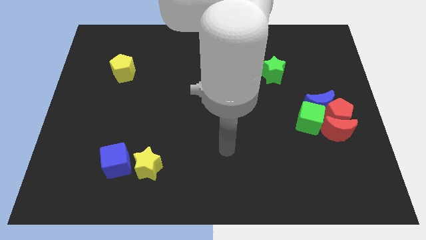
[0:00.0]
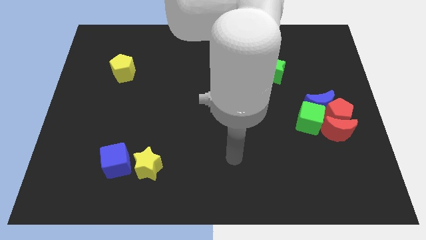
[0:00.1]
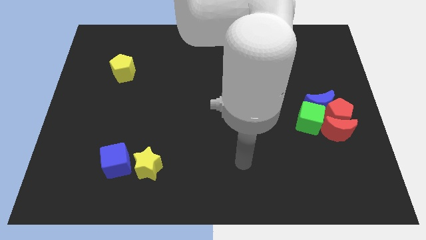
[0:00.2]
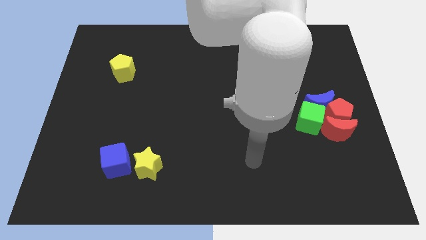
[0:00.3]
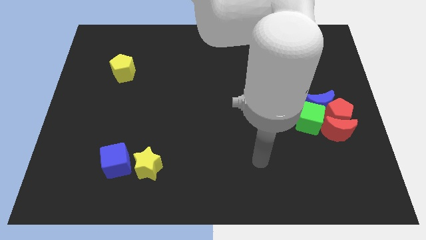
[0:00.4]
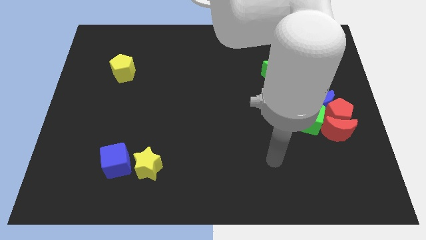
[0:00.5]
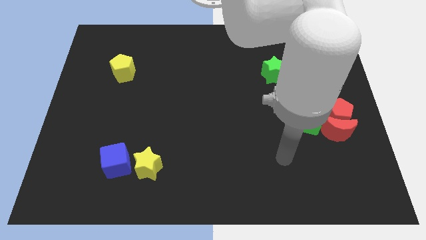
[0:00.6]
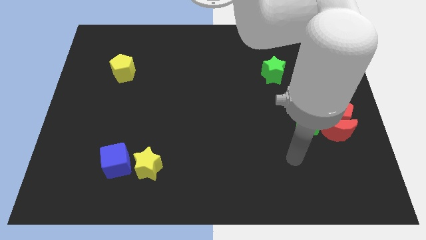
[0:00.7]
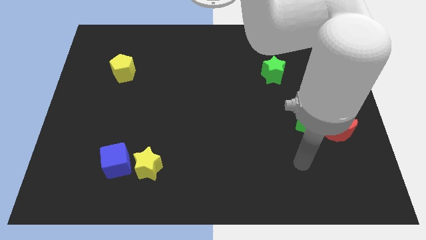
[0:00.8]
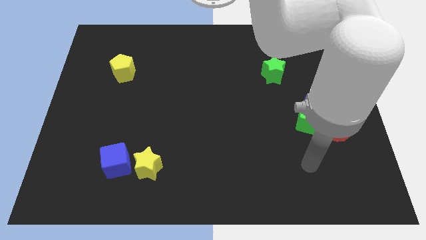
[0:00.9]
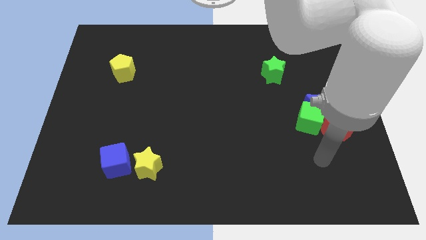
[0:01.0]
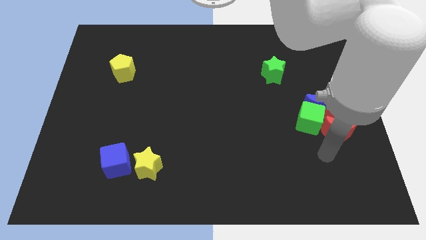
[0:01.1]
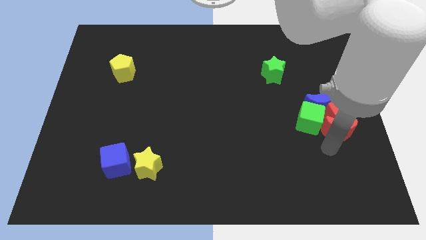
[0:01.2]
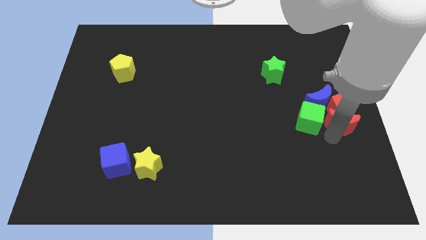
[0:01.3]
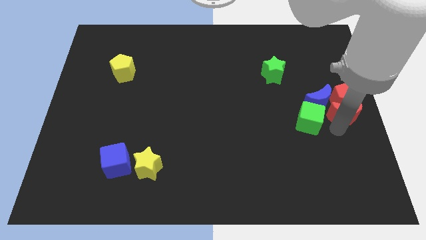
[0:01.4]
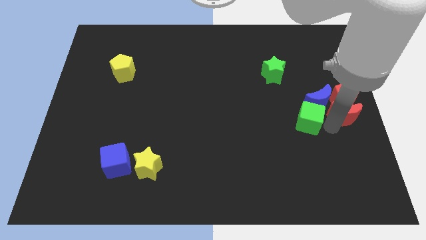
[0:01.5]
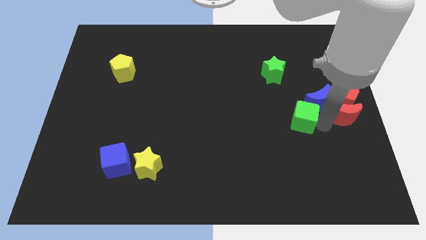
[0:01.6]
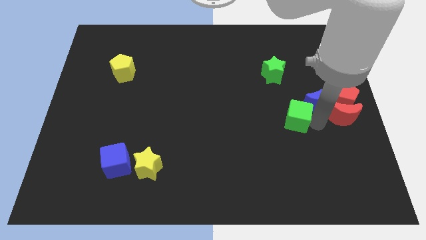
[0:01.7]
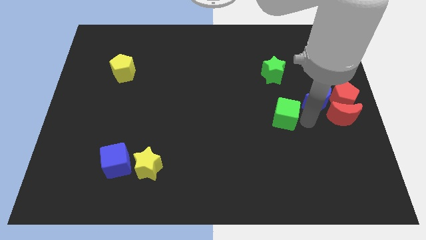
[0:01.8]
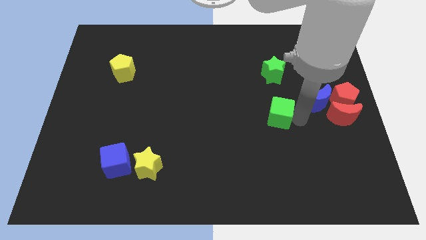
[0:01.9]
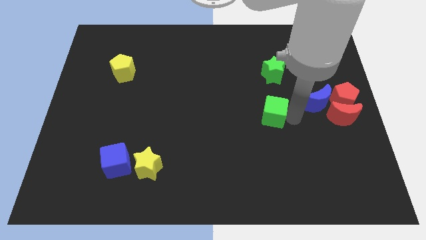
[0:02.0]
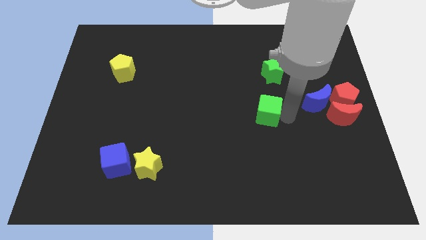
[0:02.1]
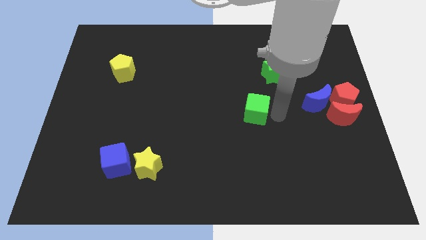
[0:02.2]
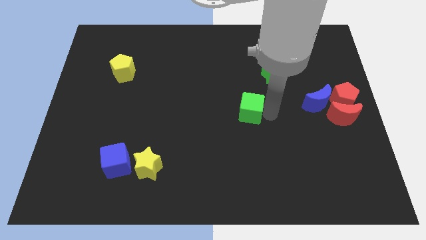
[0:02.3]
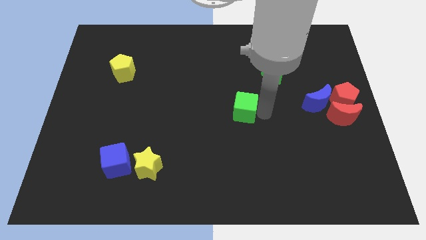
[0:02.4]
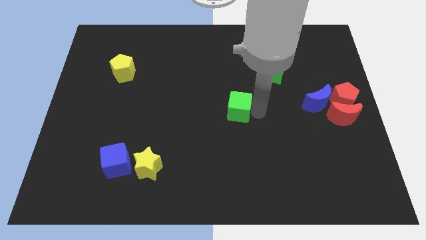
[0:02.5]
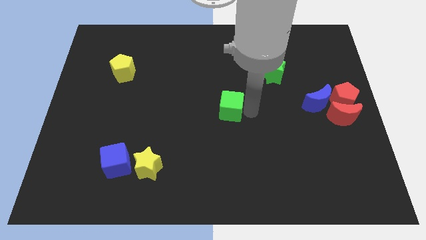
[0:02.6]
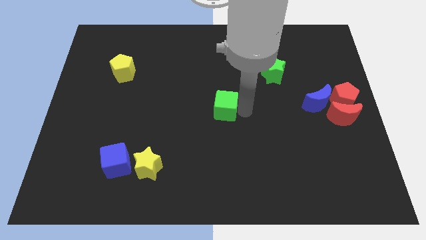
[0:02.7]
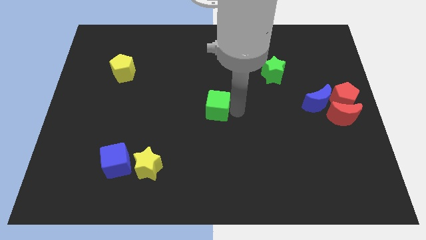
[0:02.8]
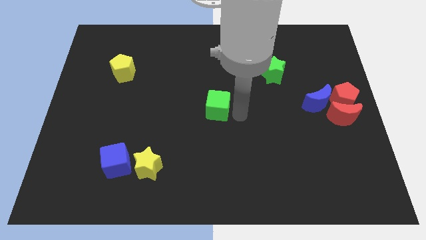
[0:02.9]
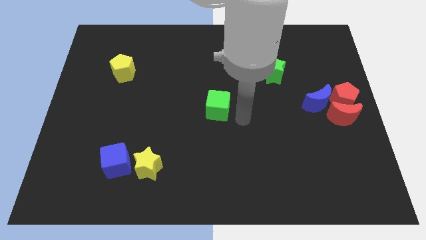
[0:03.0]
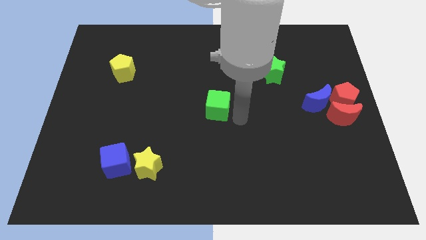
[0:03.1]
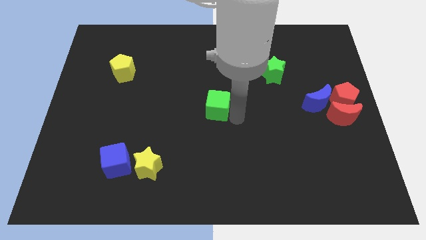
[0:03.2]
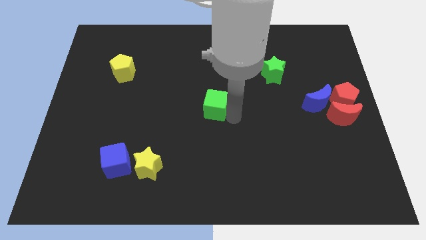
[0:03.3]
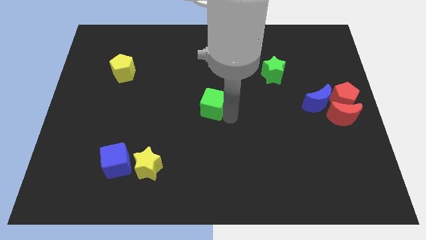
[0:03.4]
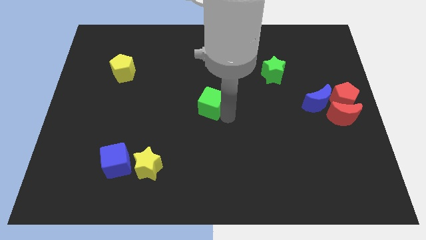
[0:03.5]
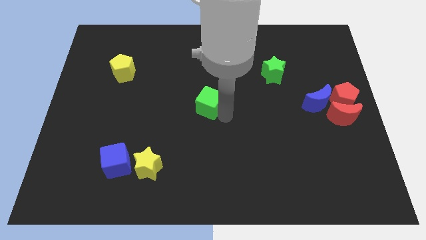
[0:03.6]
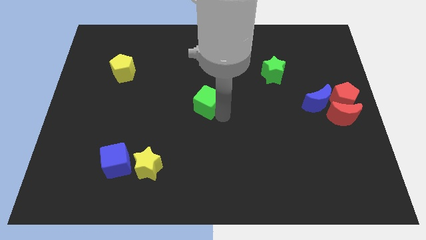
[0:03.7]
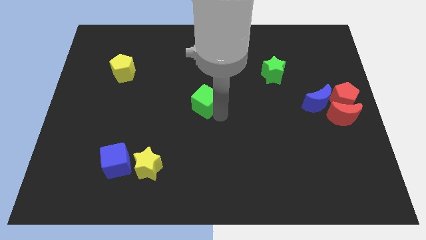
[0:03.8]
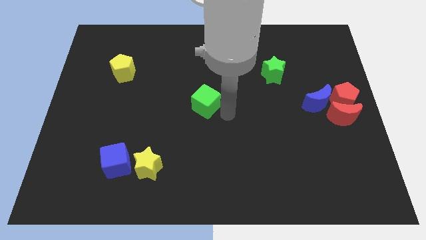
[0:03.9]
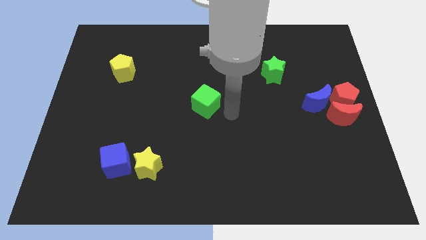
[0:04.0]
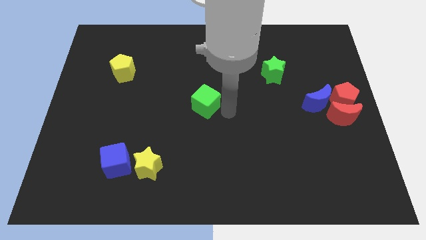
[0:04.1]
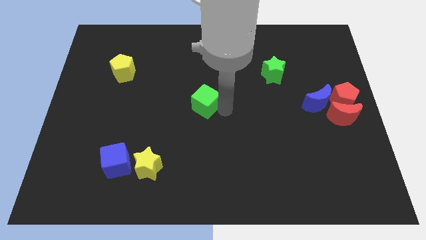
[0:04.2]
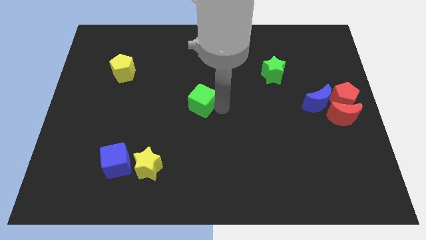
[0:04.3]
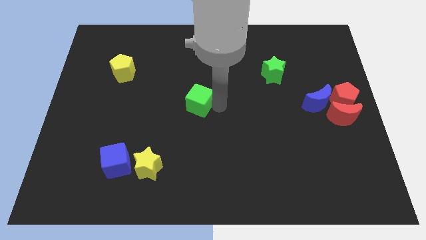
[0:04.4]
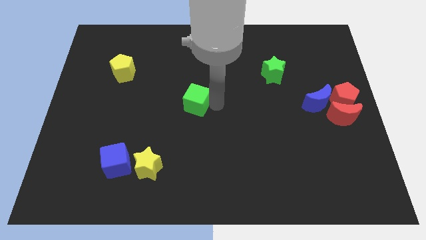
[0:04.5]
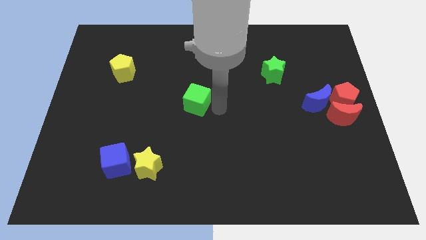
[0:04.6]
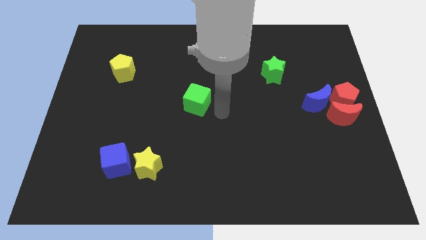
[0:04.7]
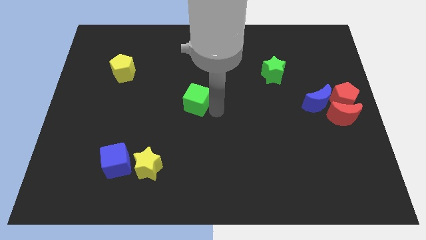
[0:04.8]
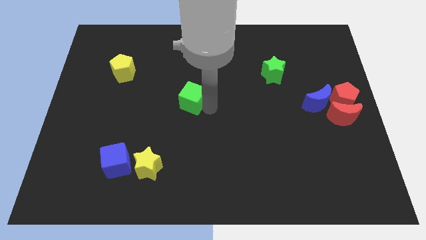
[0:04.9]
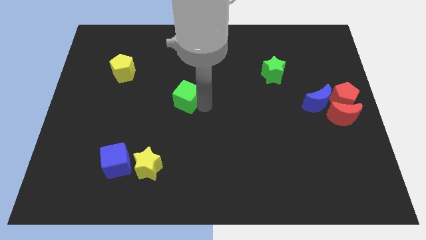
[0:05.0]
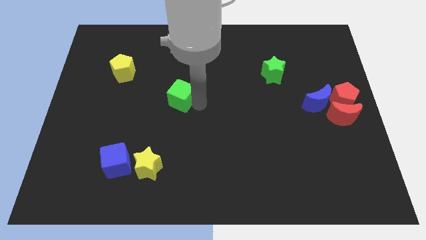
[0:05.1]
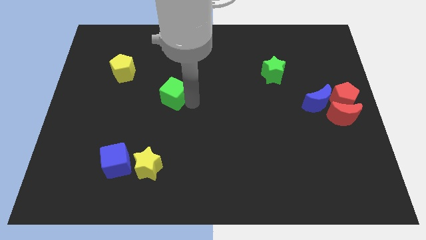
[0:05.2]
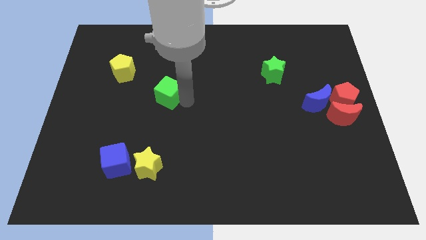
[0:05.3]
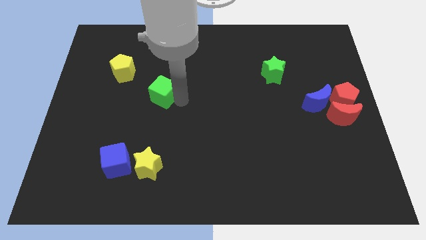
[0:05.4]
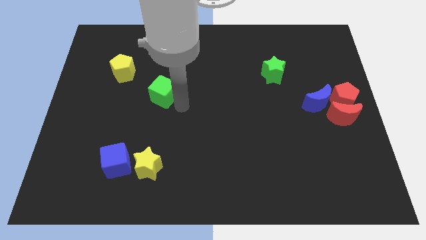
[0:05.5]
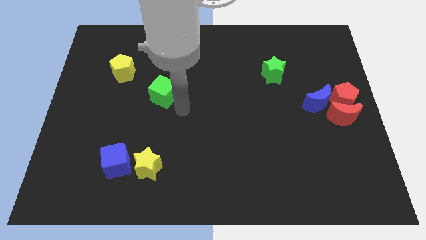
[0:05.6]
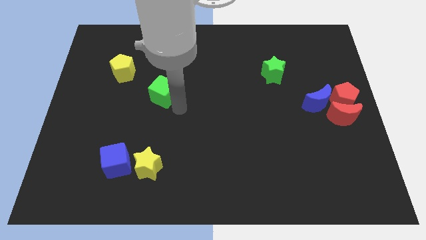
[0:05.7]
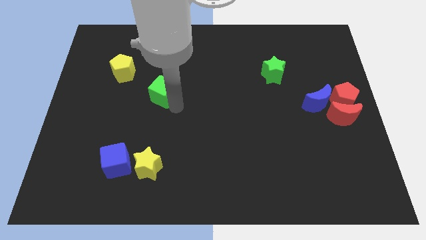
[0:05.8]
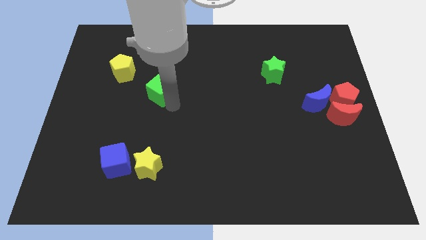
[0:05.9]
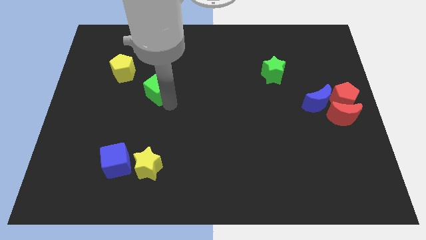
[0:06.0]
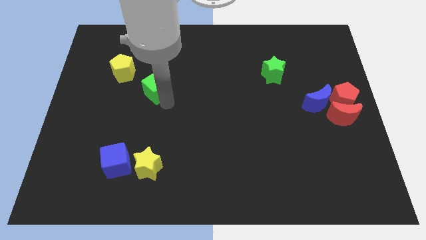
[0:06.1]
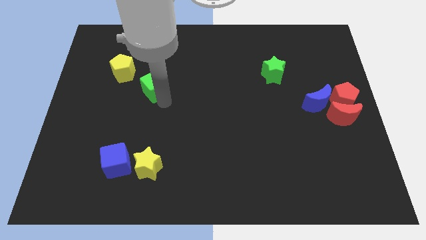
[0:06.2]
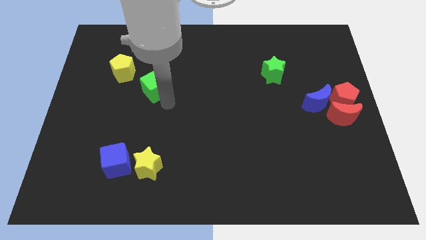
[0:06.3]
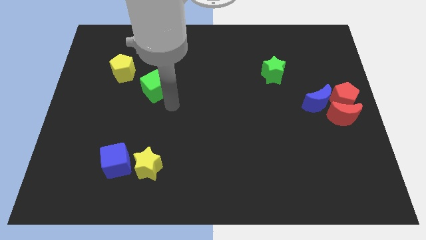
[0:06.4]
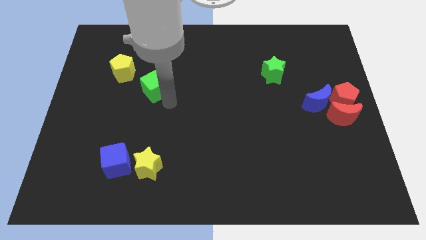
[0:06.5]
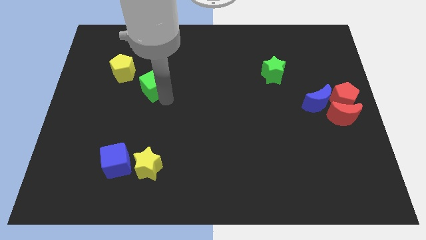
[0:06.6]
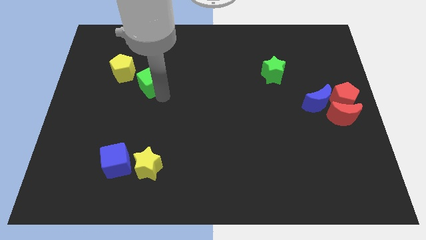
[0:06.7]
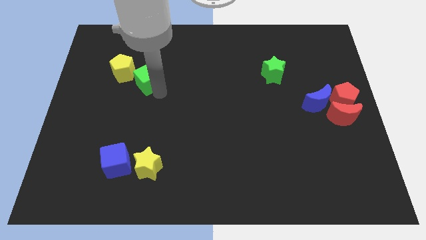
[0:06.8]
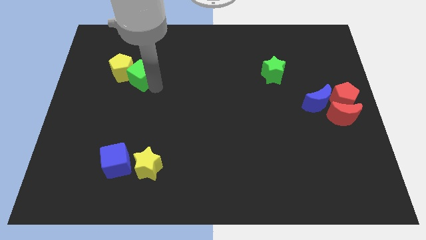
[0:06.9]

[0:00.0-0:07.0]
put the green cube close to the yellow pentagon

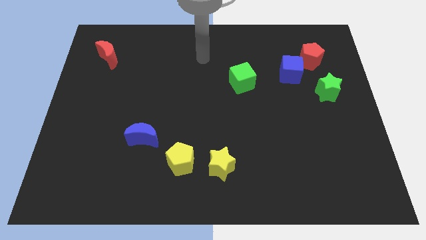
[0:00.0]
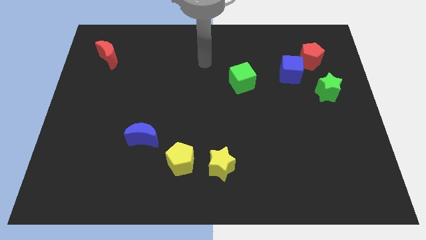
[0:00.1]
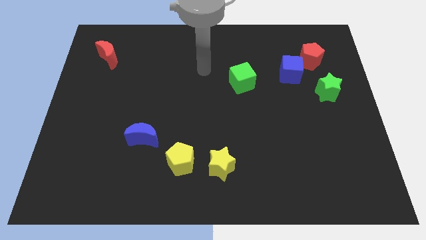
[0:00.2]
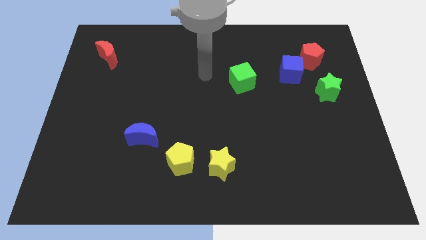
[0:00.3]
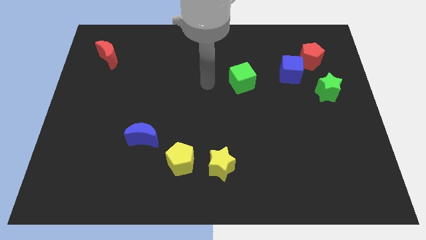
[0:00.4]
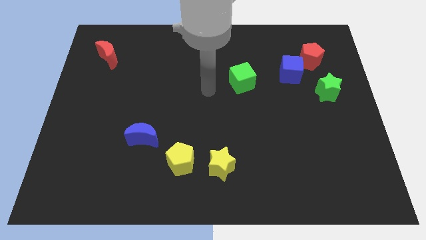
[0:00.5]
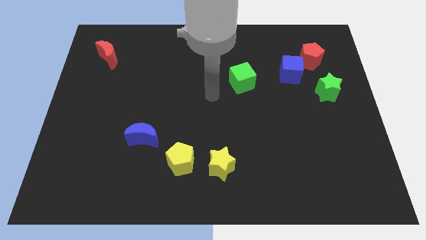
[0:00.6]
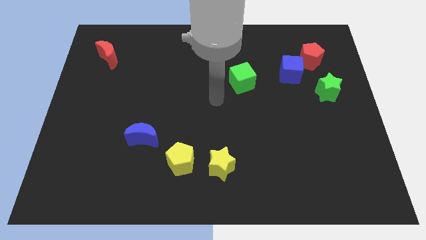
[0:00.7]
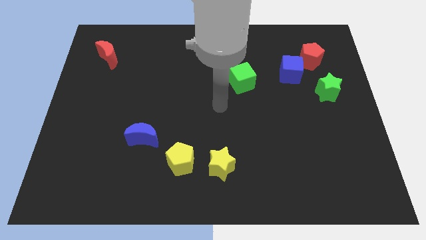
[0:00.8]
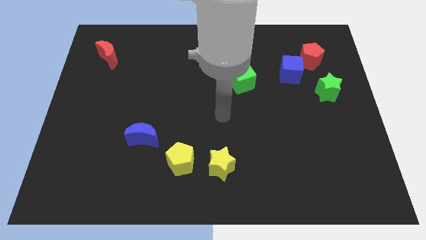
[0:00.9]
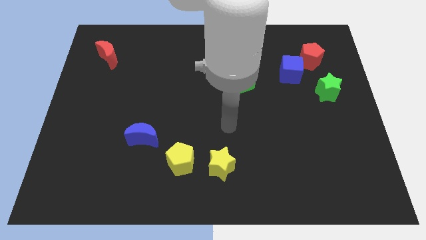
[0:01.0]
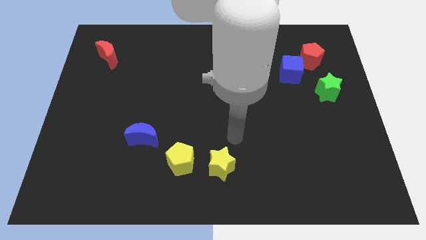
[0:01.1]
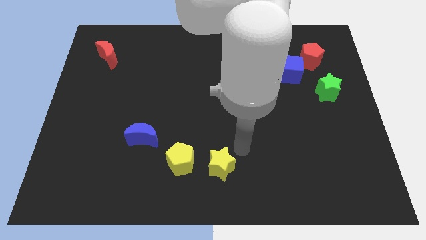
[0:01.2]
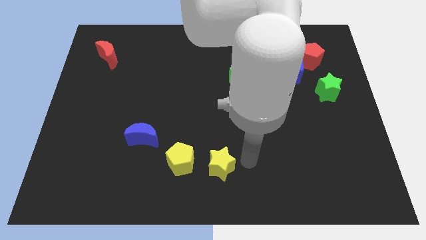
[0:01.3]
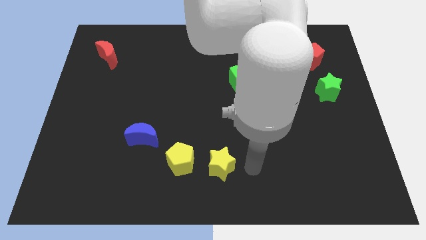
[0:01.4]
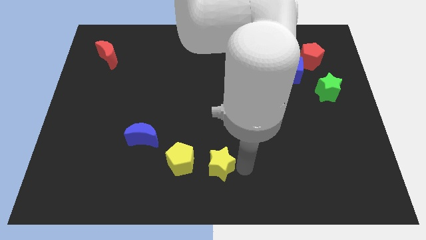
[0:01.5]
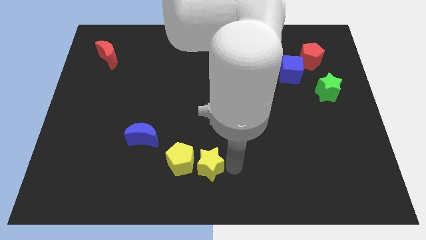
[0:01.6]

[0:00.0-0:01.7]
put the yellow star close to the yellow pentagon
